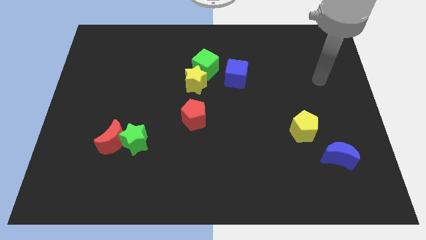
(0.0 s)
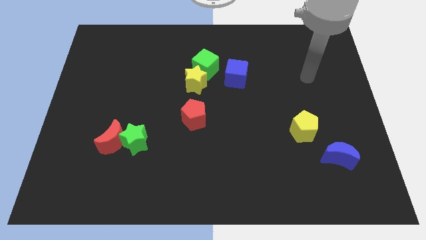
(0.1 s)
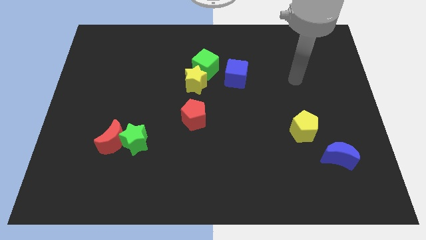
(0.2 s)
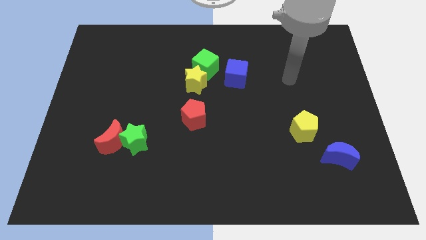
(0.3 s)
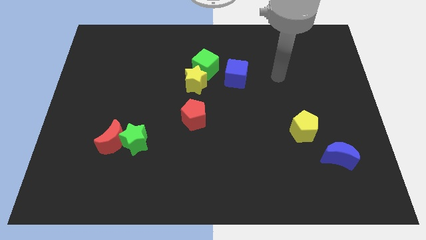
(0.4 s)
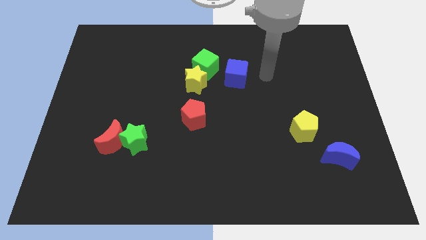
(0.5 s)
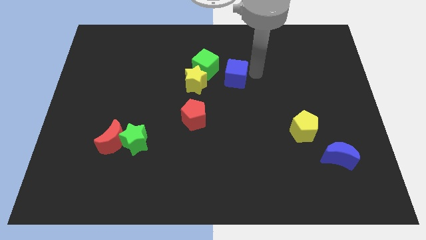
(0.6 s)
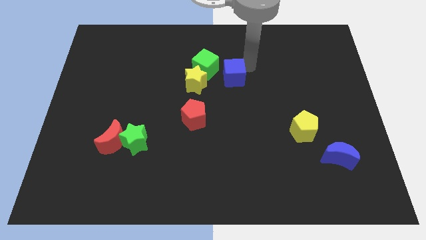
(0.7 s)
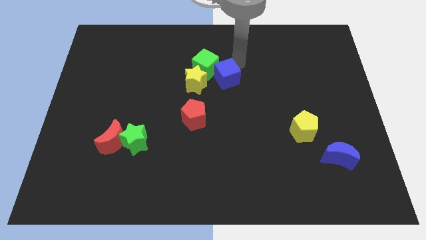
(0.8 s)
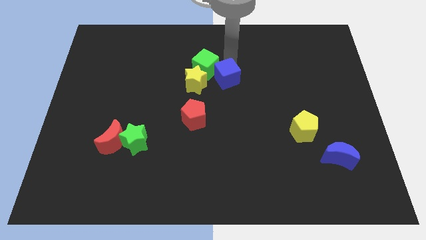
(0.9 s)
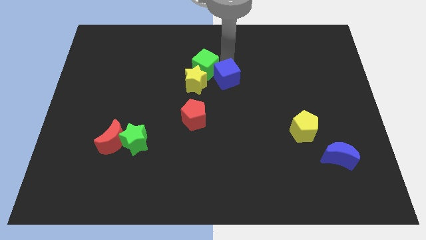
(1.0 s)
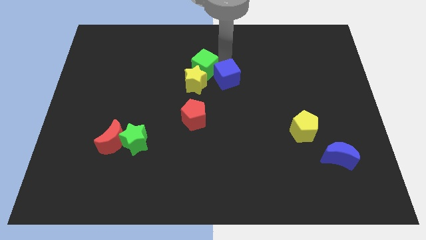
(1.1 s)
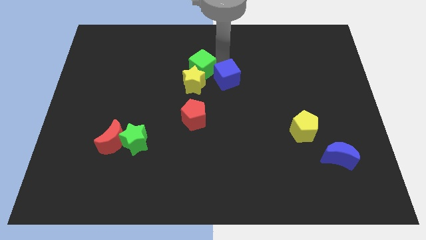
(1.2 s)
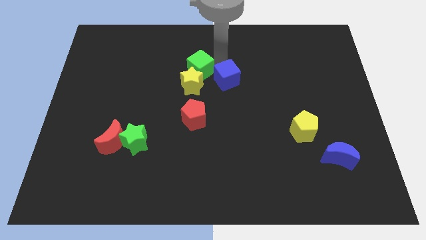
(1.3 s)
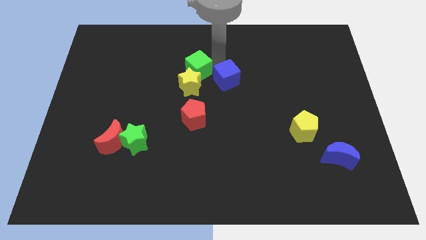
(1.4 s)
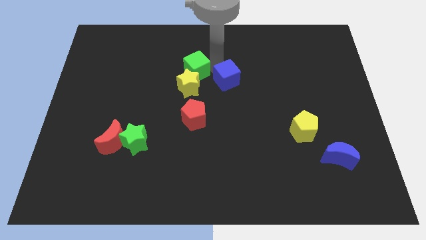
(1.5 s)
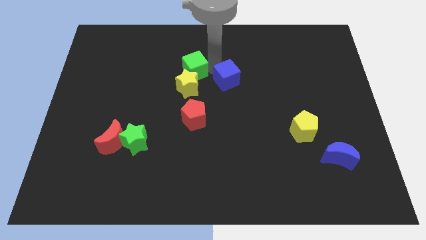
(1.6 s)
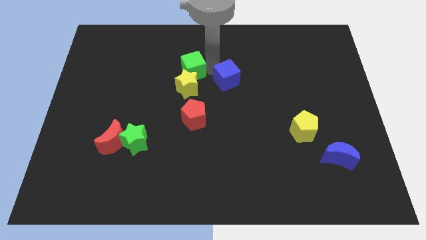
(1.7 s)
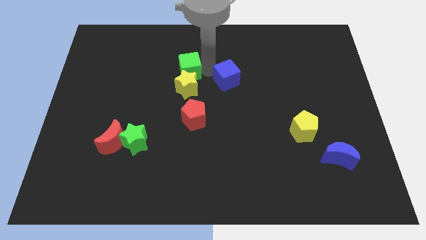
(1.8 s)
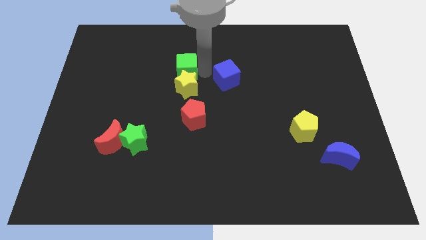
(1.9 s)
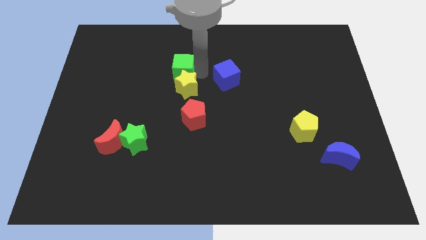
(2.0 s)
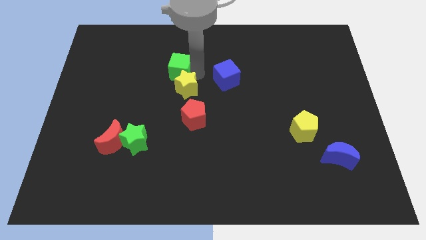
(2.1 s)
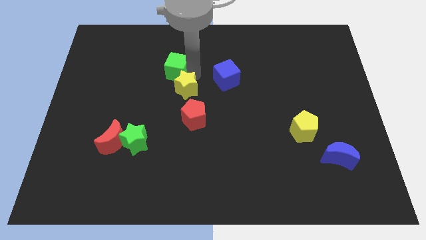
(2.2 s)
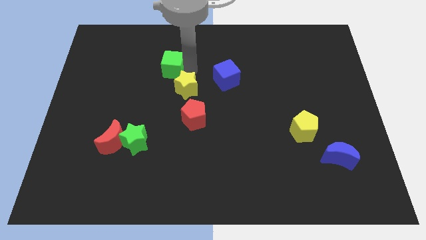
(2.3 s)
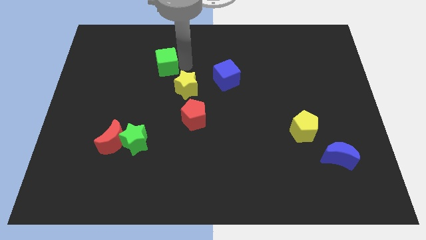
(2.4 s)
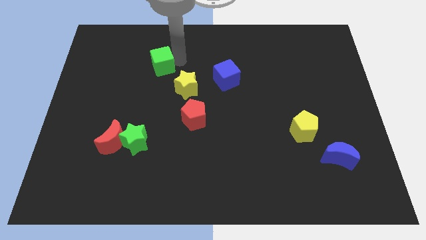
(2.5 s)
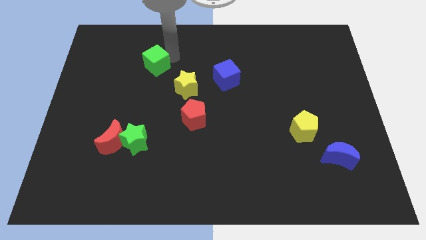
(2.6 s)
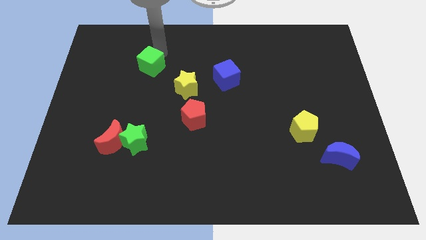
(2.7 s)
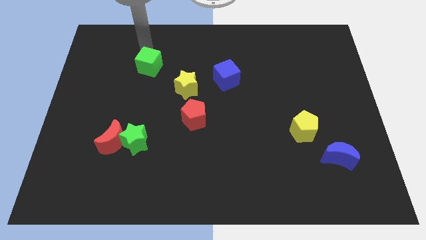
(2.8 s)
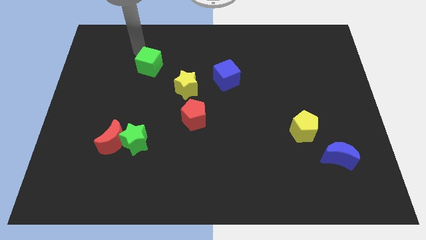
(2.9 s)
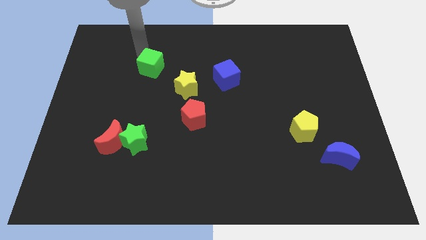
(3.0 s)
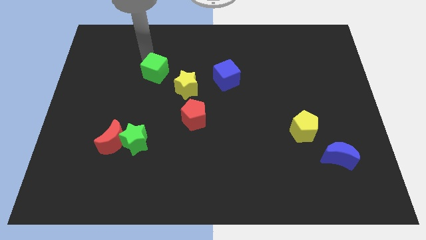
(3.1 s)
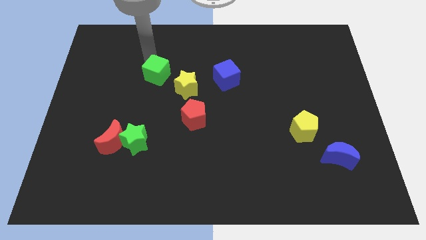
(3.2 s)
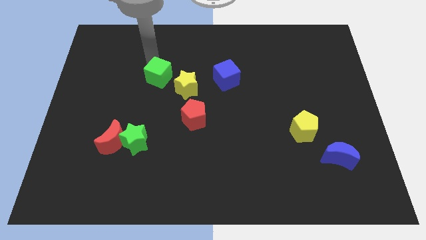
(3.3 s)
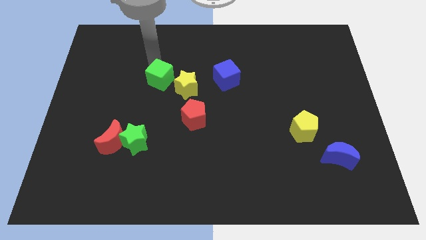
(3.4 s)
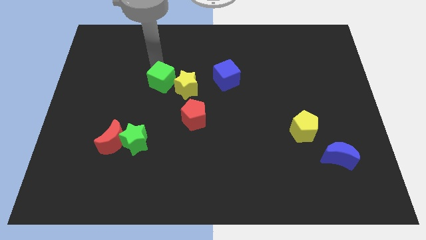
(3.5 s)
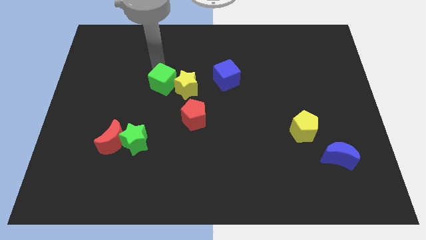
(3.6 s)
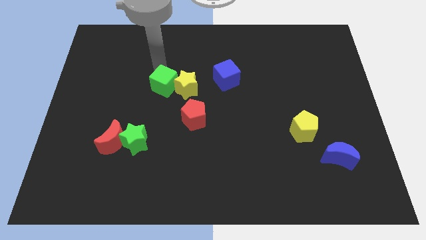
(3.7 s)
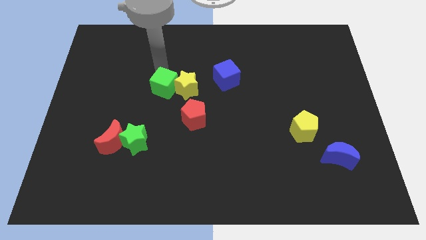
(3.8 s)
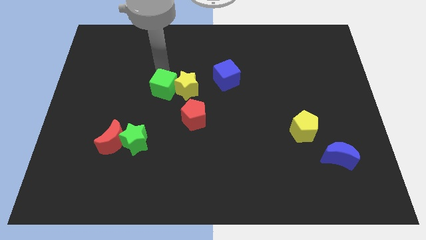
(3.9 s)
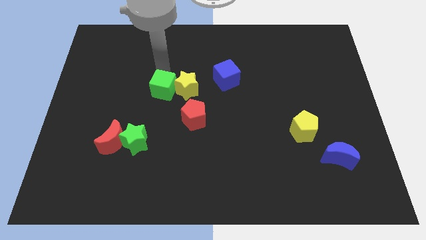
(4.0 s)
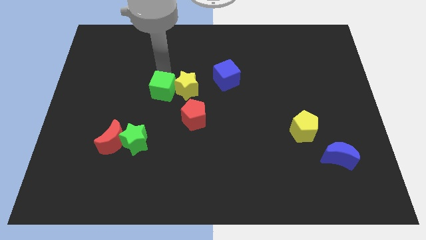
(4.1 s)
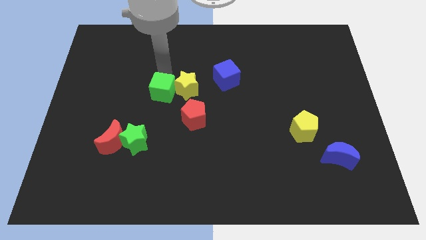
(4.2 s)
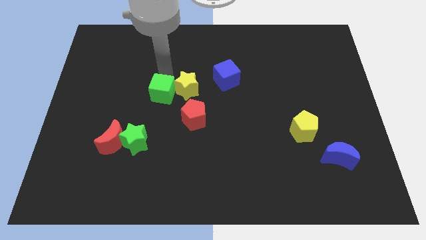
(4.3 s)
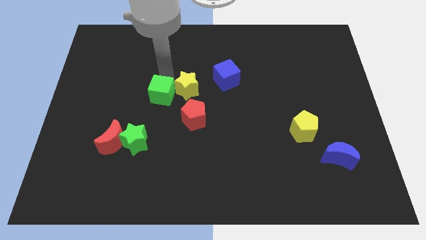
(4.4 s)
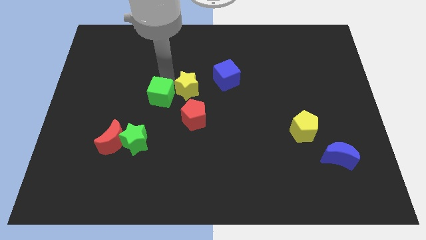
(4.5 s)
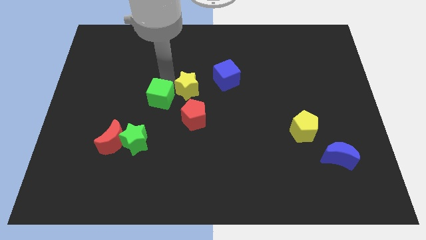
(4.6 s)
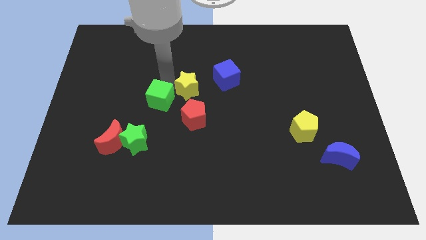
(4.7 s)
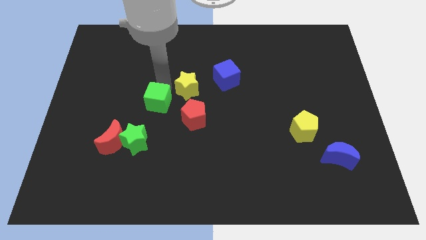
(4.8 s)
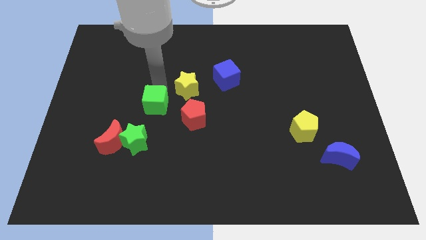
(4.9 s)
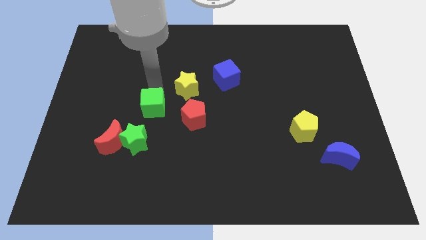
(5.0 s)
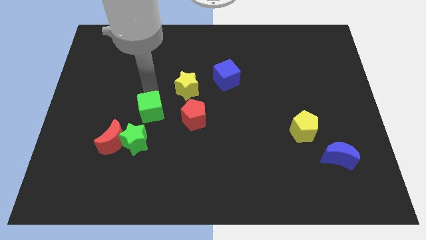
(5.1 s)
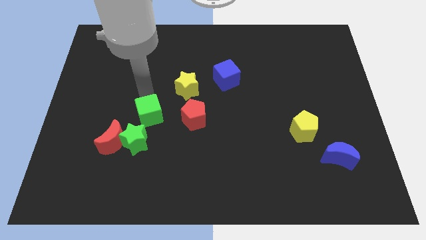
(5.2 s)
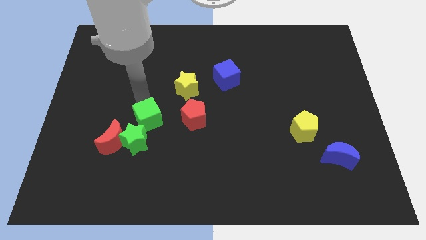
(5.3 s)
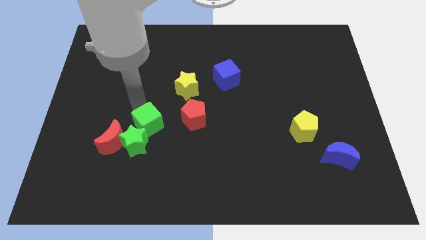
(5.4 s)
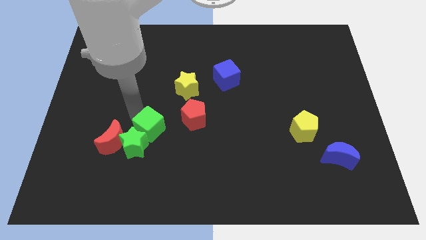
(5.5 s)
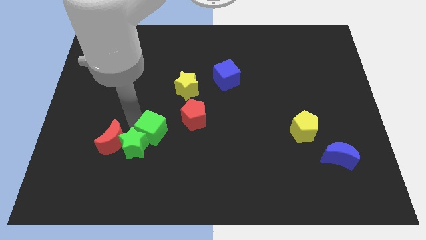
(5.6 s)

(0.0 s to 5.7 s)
move the green cube diagonally down and to the left of the red pentagon

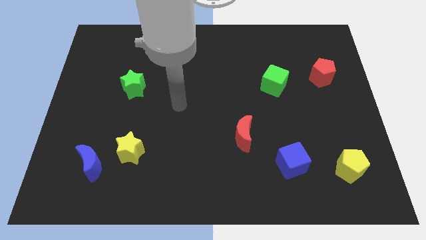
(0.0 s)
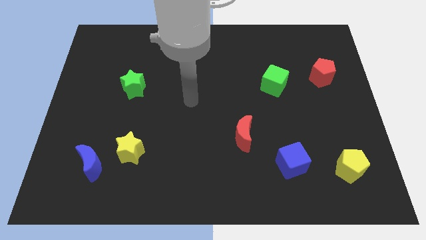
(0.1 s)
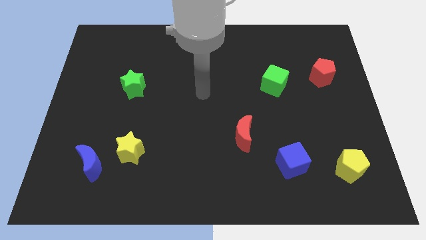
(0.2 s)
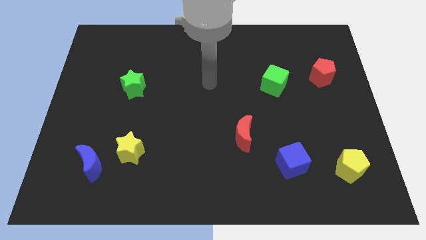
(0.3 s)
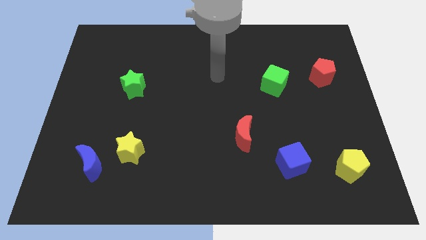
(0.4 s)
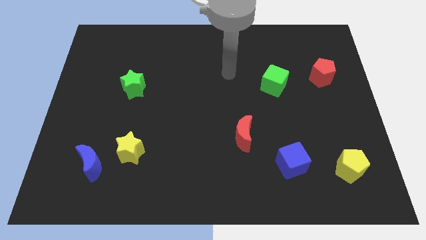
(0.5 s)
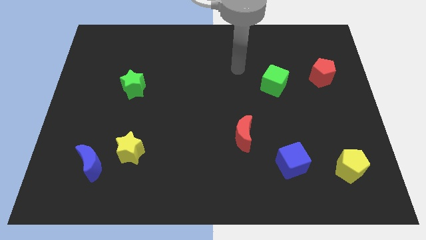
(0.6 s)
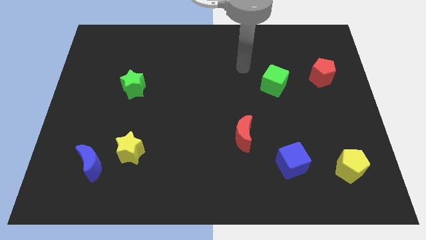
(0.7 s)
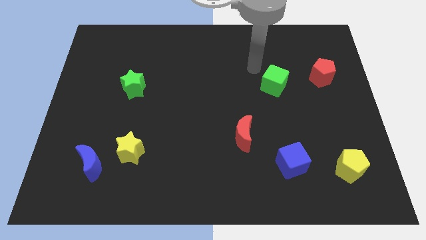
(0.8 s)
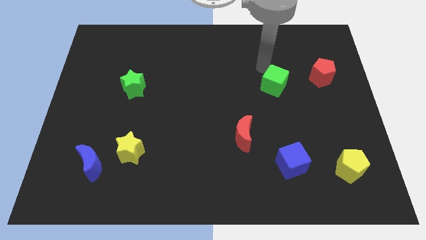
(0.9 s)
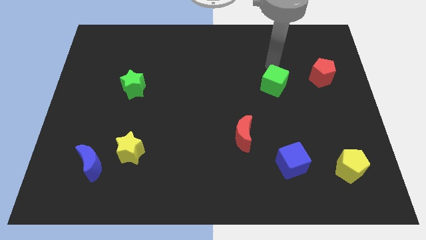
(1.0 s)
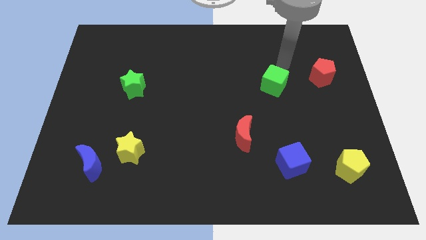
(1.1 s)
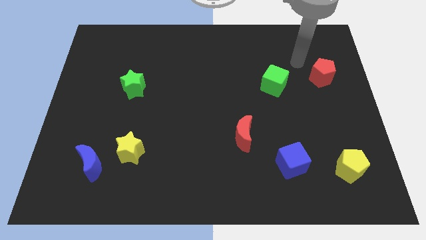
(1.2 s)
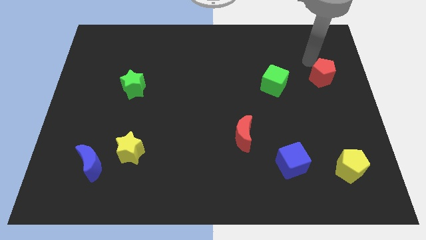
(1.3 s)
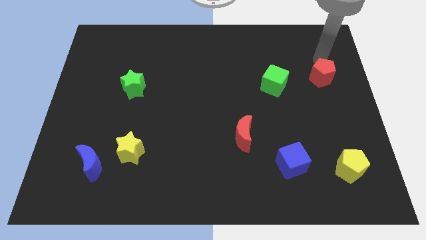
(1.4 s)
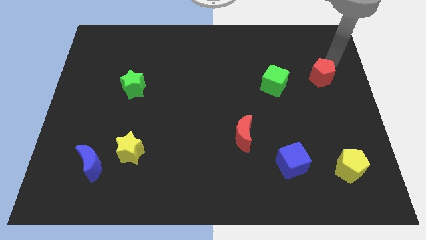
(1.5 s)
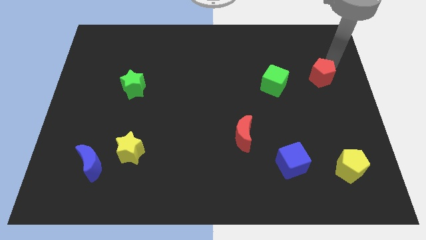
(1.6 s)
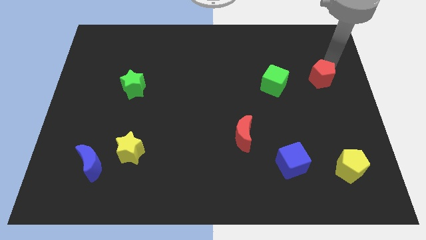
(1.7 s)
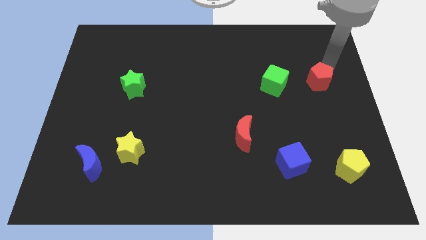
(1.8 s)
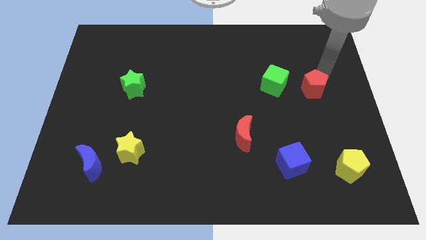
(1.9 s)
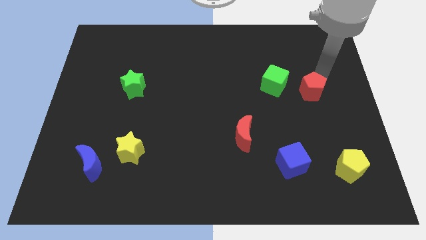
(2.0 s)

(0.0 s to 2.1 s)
put the red pentagon to the bottom right side of the green cube

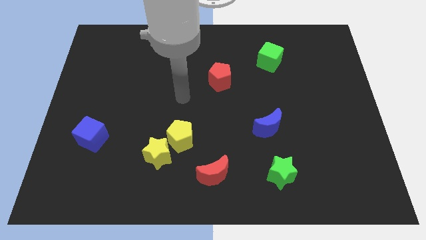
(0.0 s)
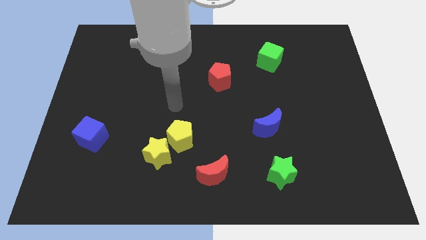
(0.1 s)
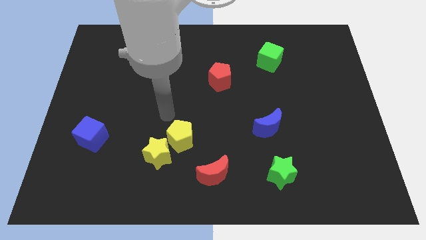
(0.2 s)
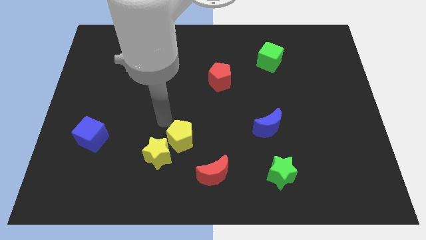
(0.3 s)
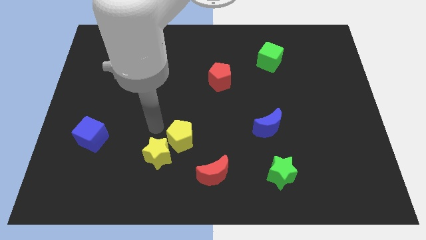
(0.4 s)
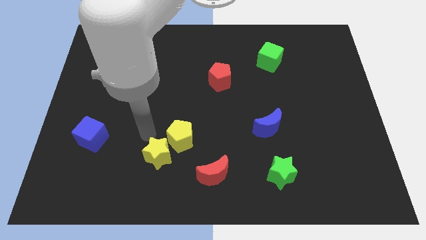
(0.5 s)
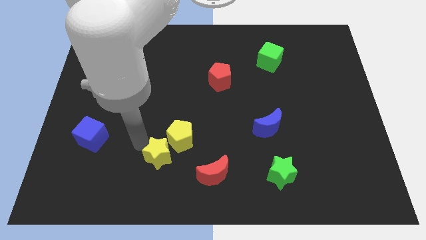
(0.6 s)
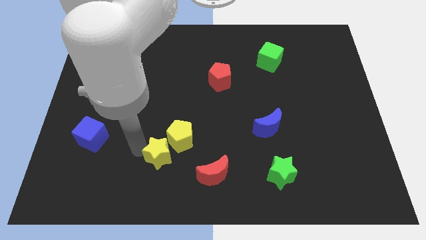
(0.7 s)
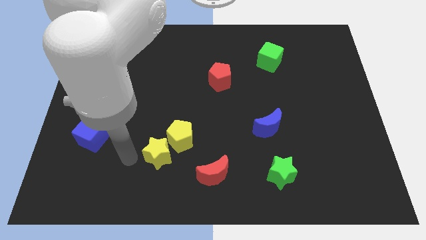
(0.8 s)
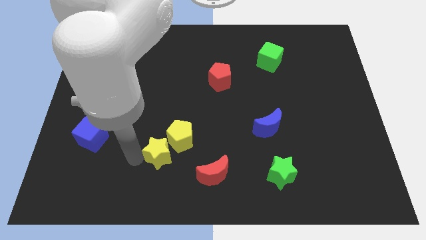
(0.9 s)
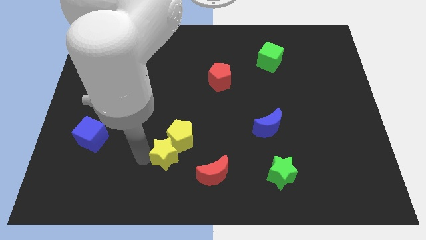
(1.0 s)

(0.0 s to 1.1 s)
move the yellow star to the top left side of the red moon
